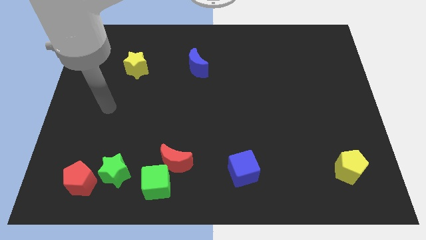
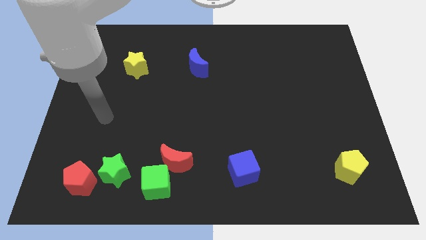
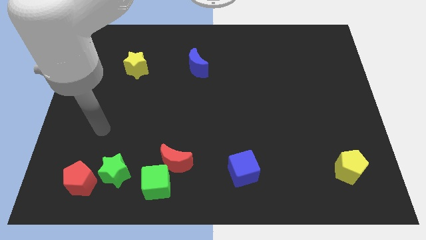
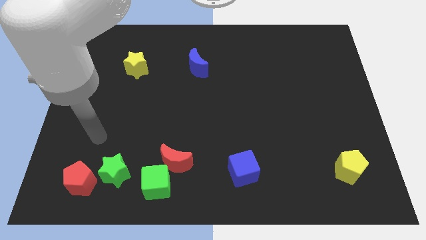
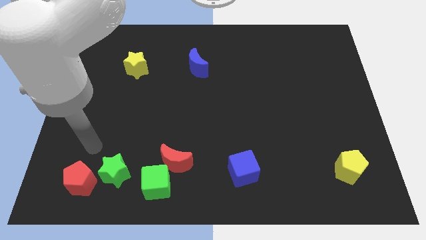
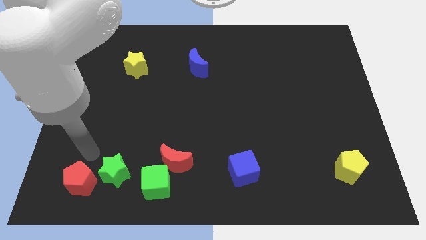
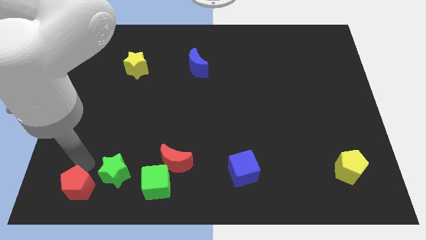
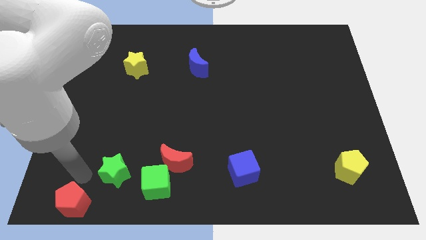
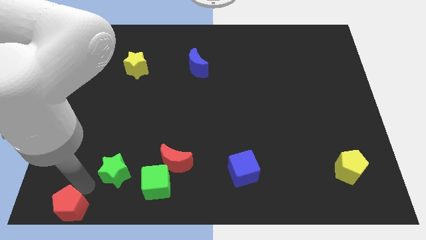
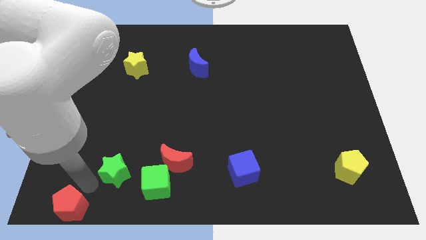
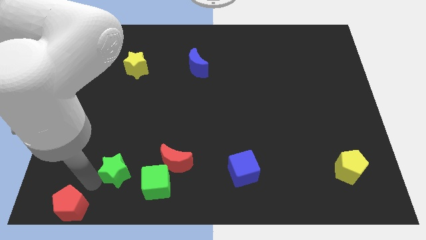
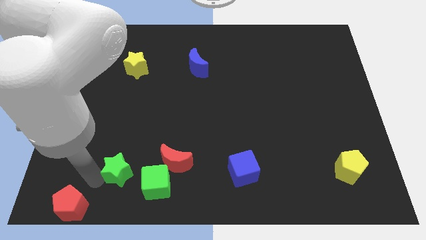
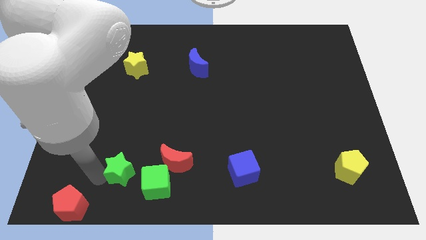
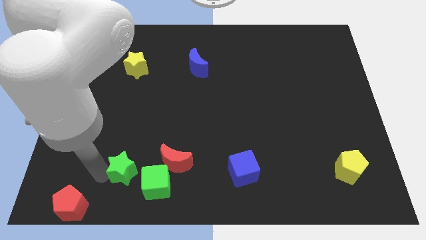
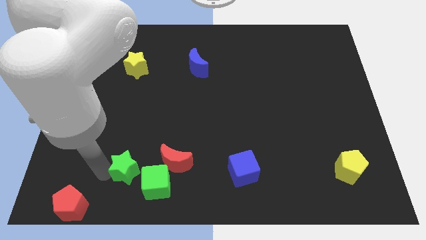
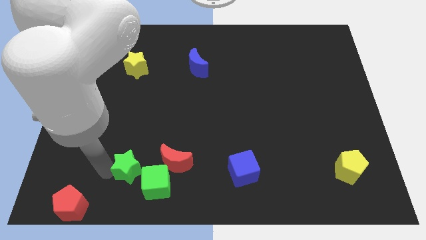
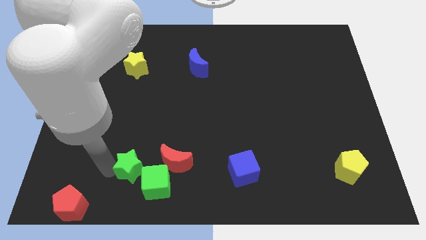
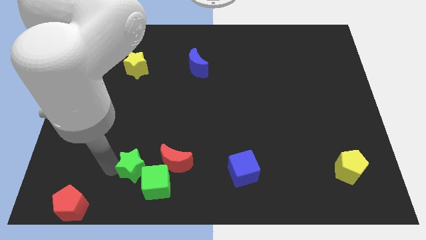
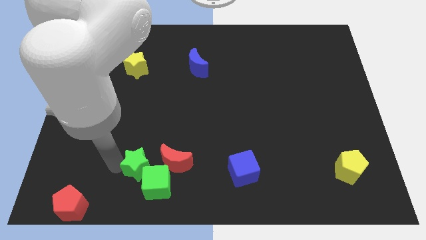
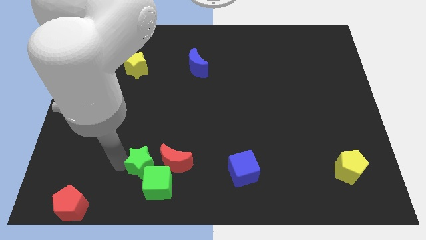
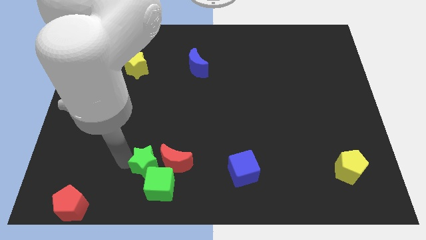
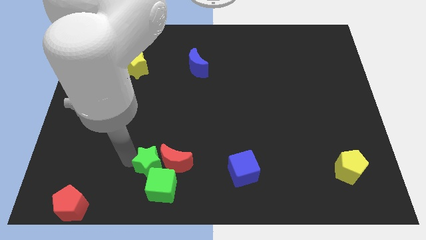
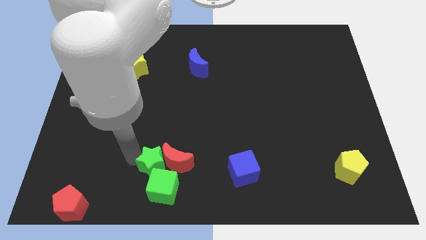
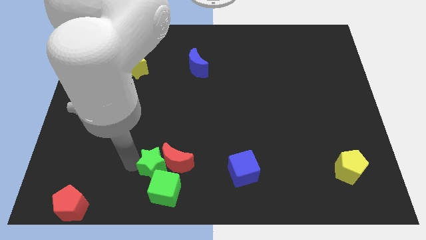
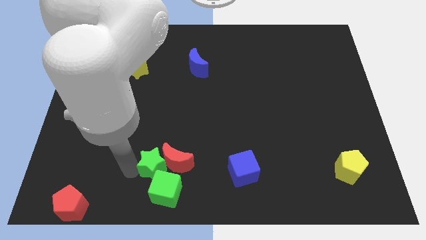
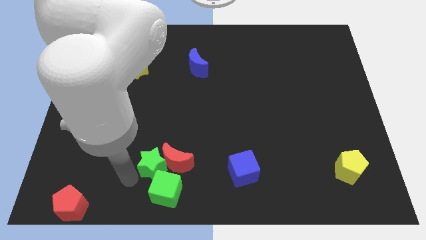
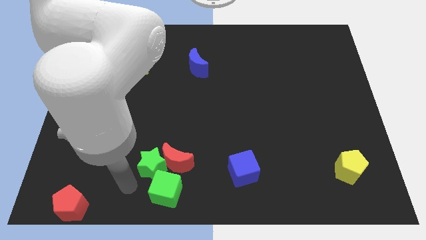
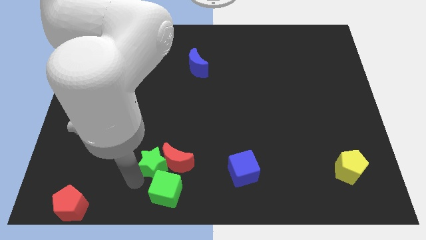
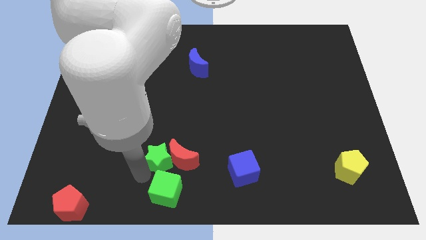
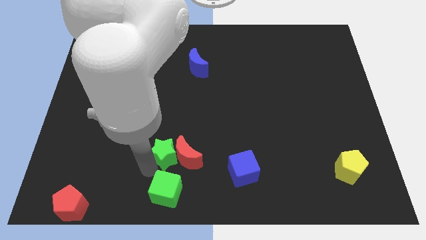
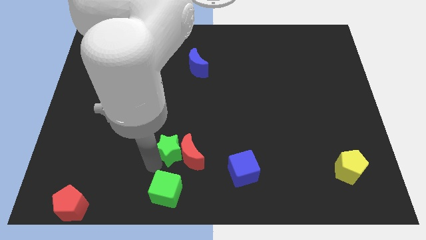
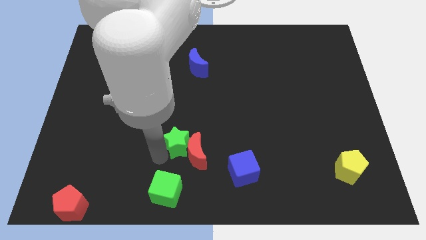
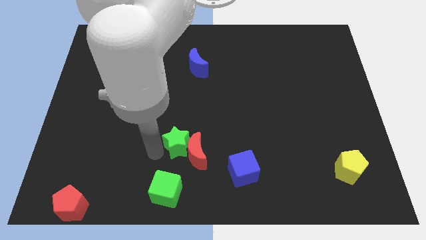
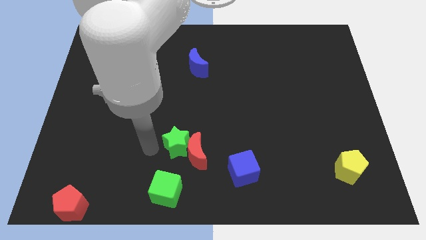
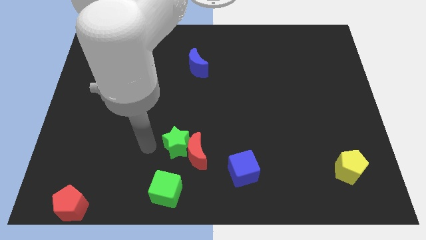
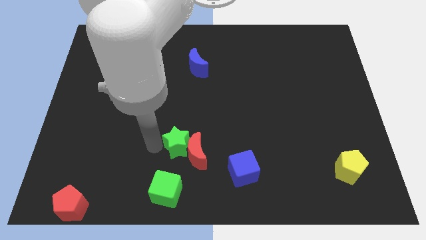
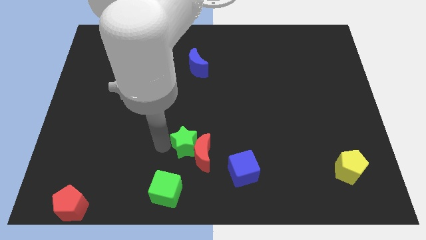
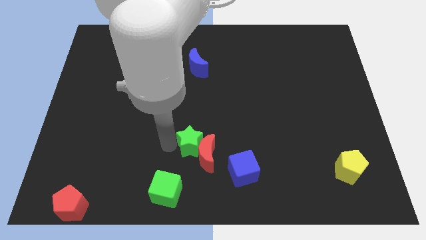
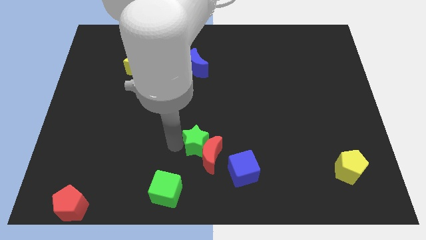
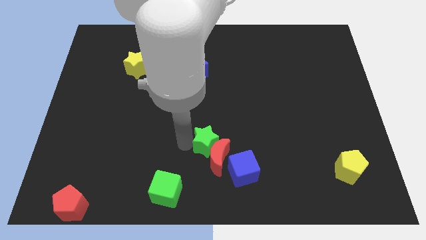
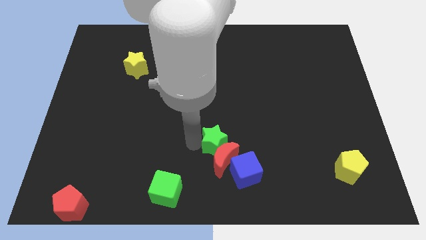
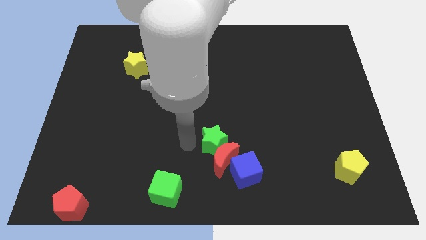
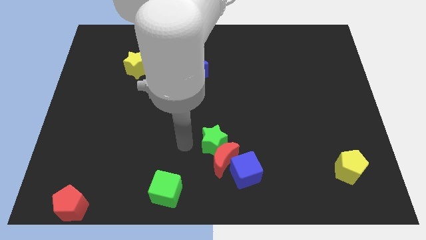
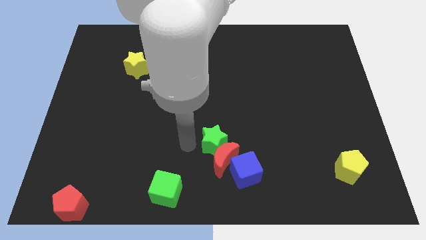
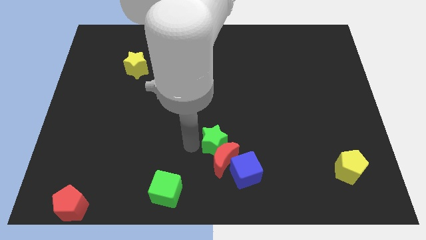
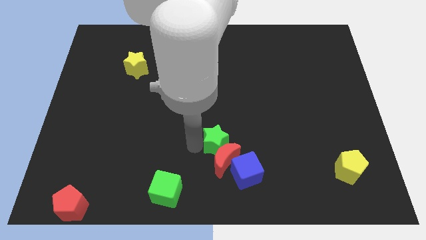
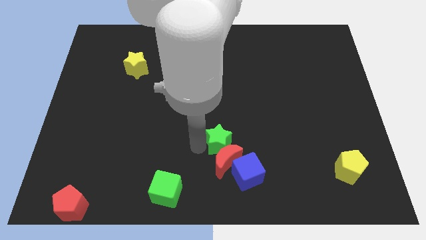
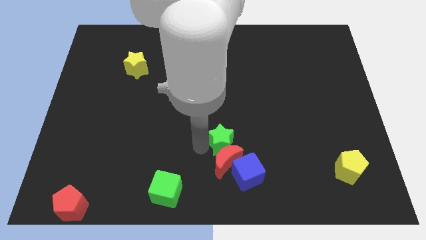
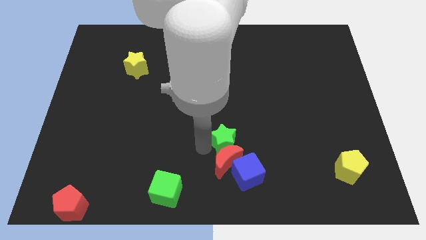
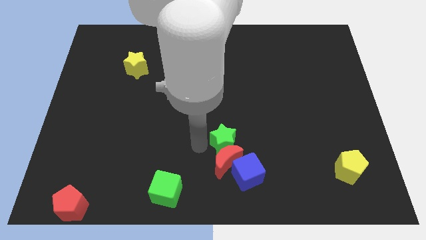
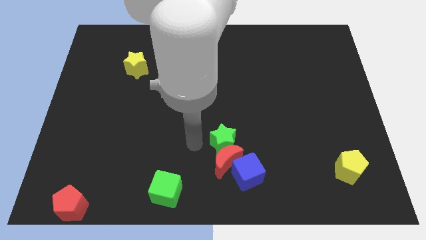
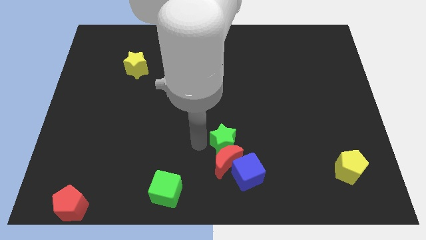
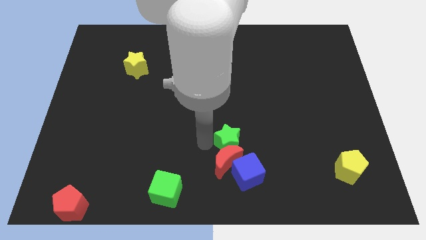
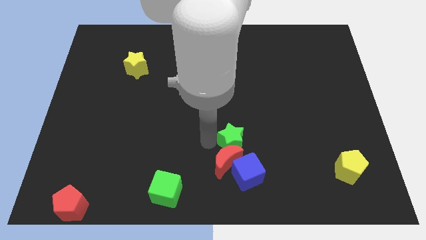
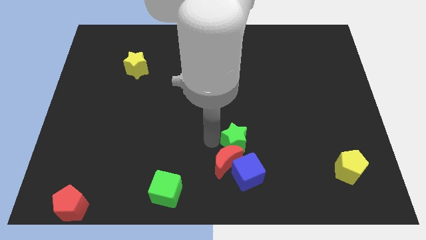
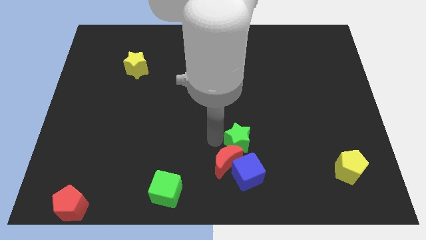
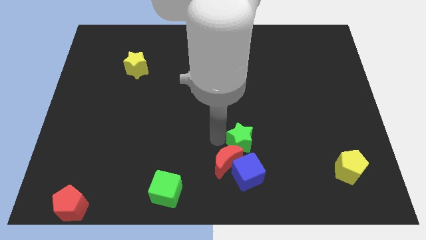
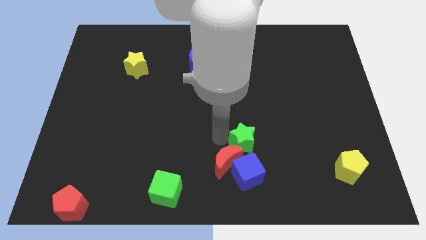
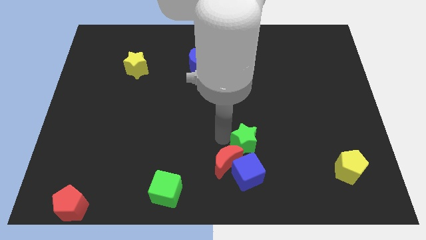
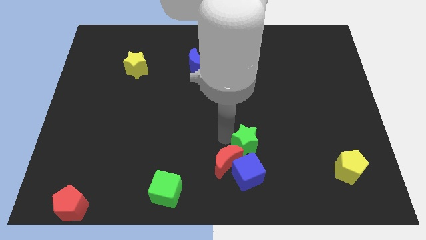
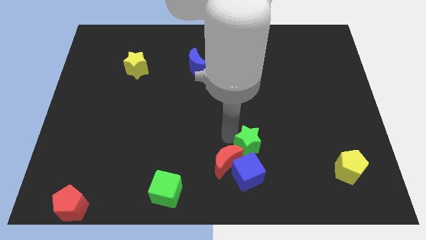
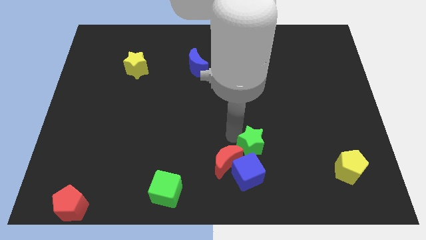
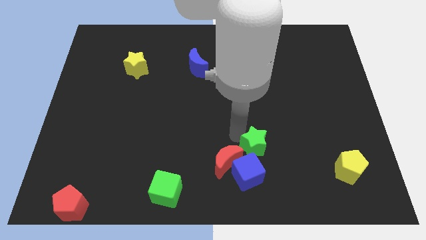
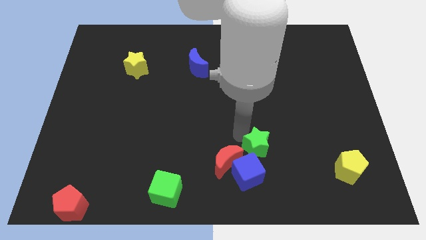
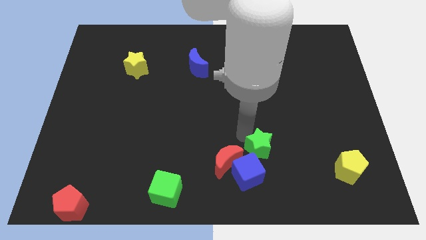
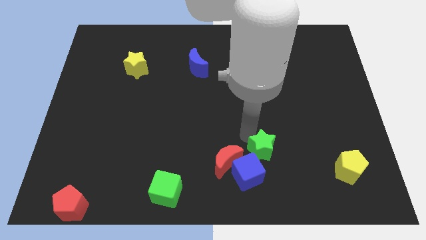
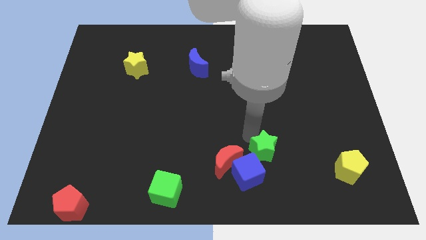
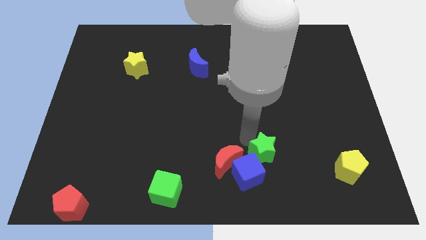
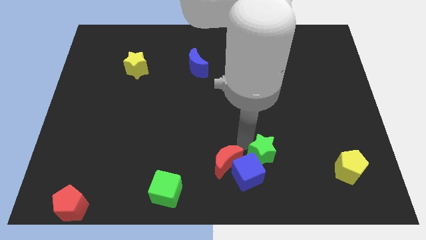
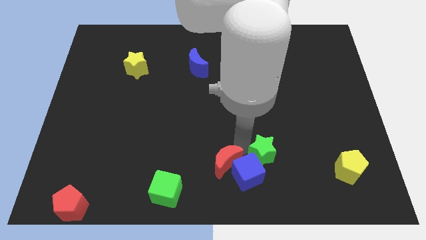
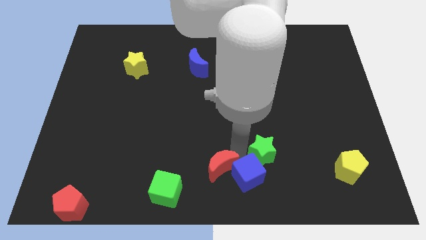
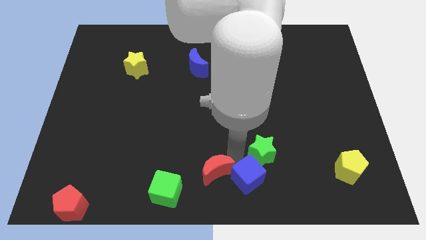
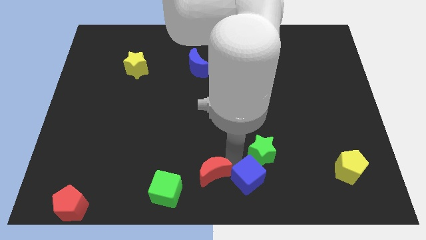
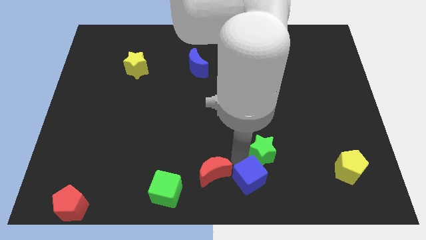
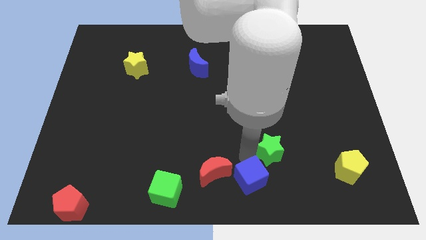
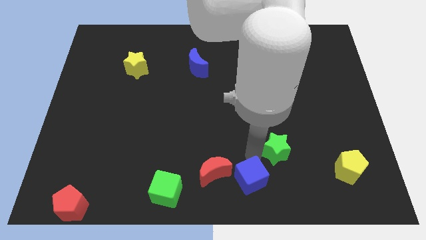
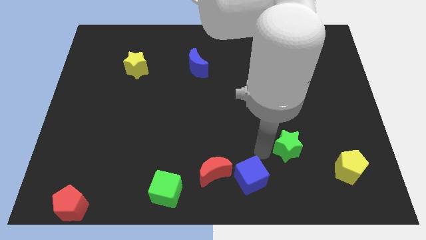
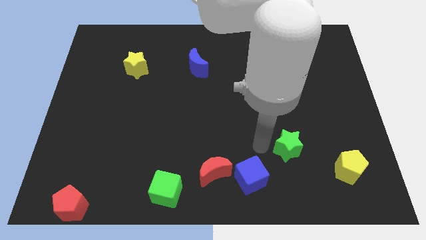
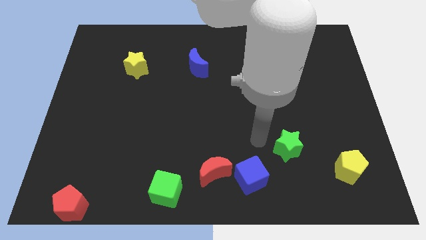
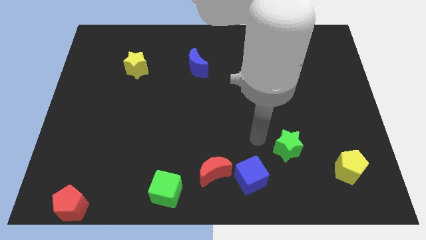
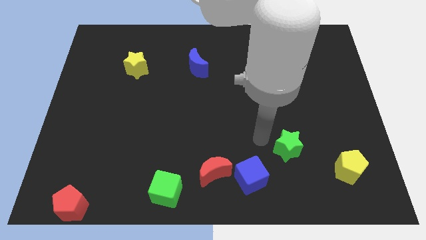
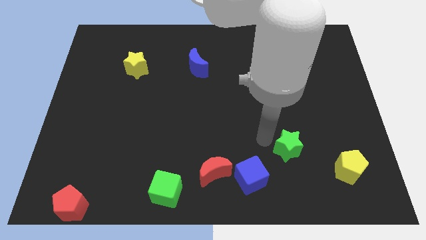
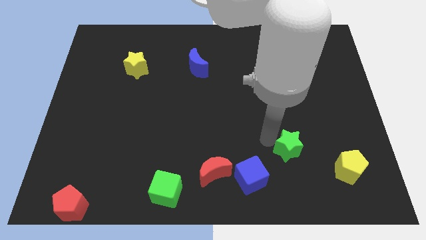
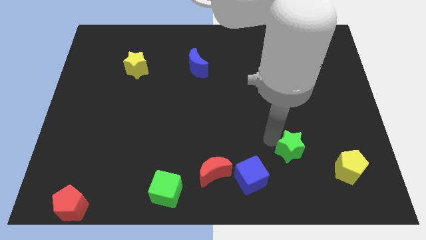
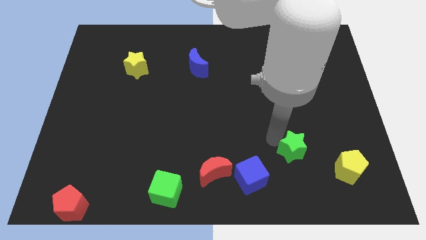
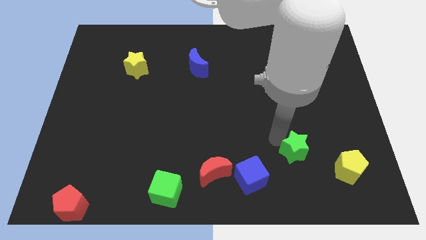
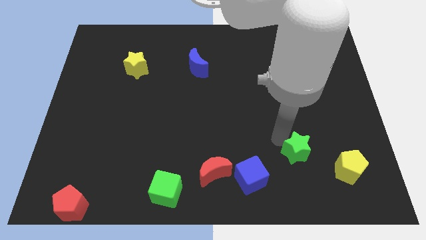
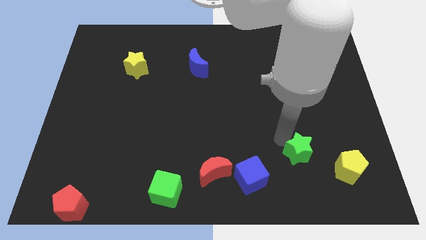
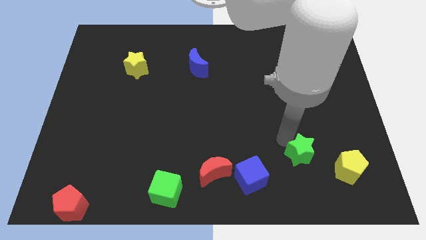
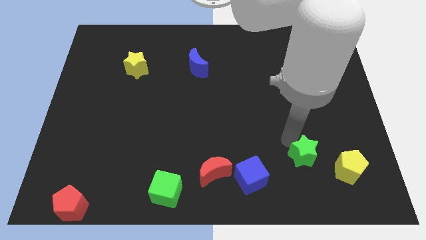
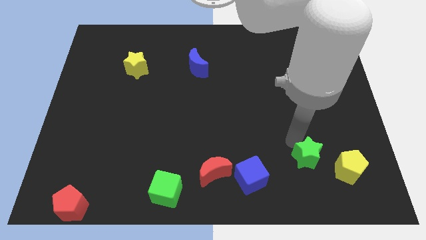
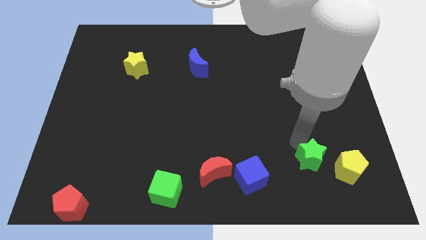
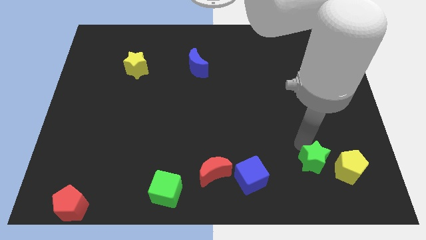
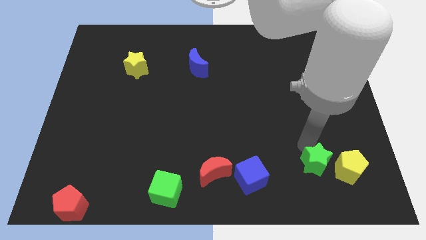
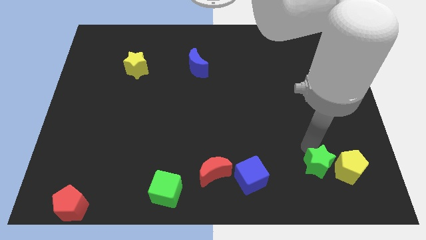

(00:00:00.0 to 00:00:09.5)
slide the green star to the yellow pentagon
